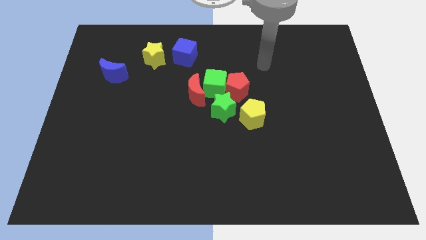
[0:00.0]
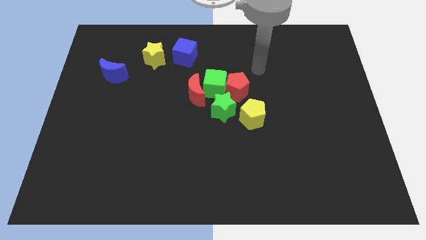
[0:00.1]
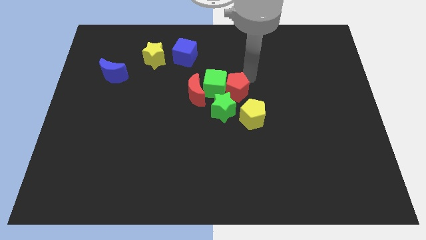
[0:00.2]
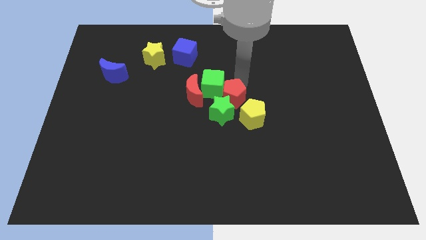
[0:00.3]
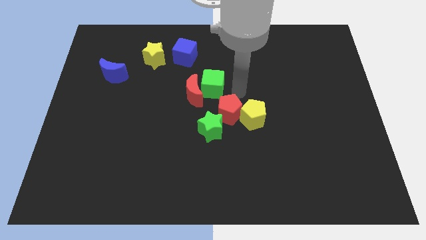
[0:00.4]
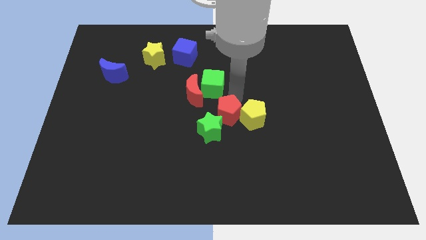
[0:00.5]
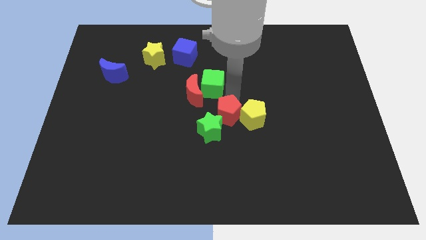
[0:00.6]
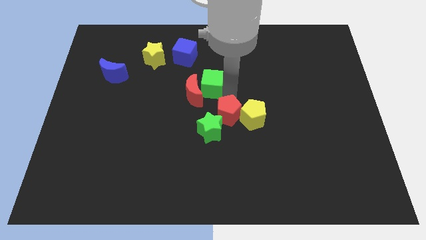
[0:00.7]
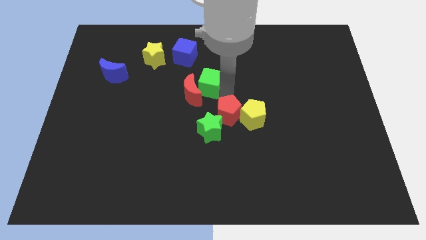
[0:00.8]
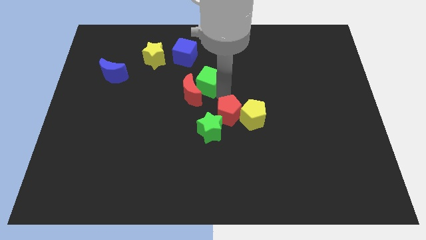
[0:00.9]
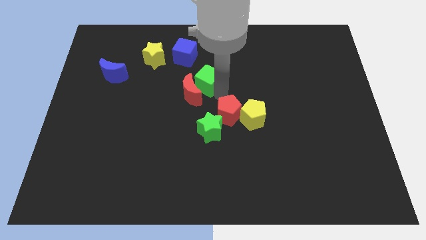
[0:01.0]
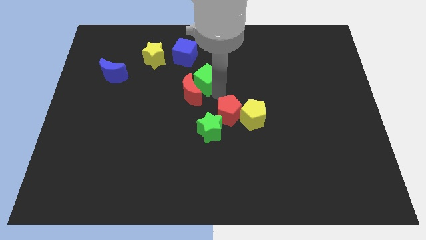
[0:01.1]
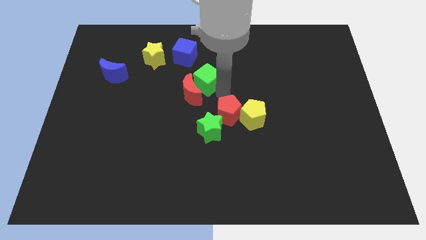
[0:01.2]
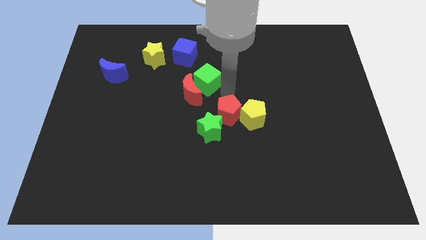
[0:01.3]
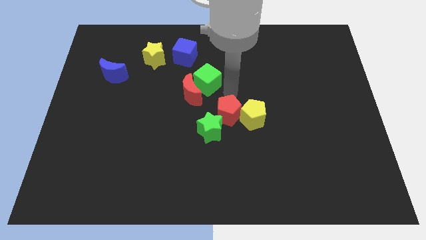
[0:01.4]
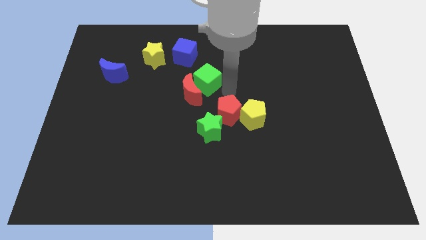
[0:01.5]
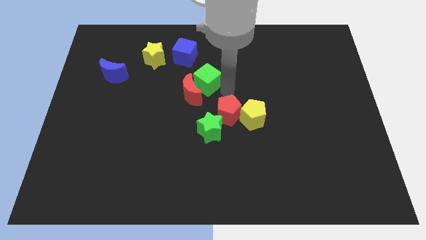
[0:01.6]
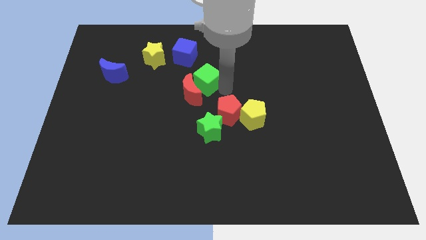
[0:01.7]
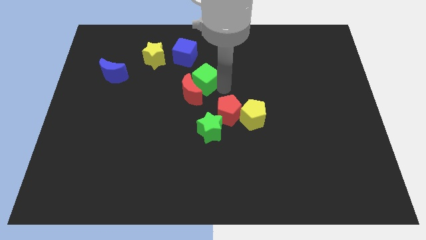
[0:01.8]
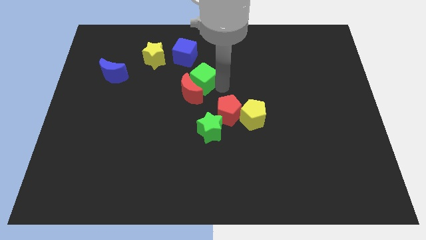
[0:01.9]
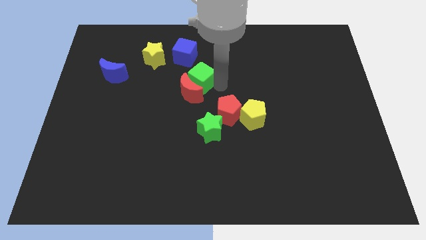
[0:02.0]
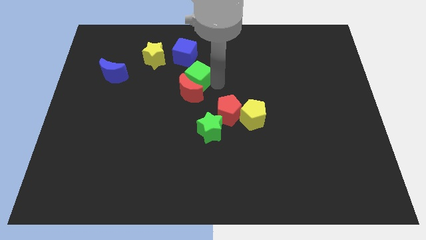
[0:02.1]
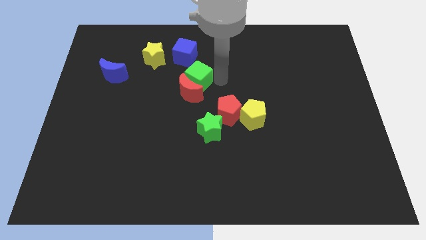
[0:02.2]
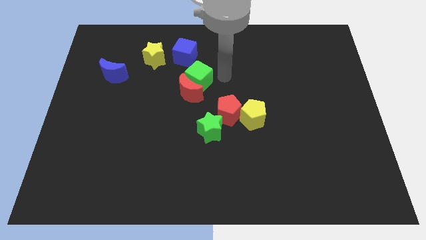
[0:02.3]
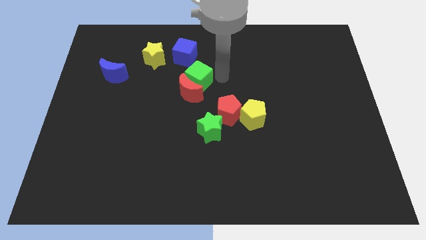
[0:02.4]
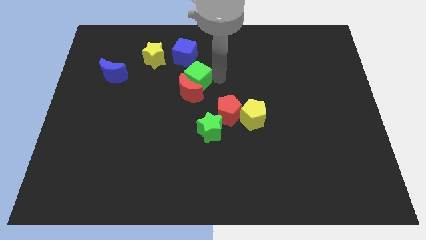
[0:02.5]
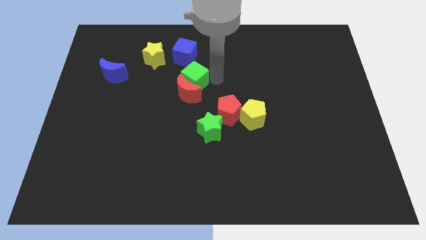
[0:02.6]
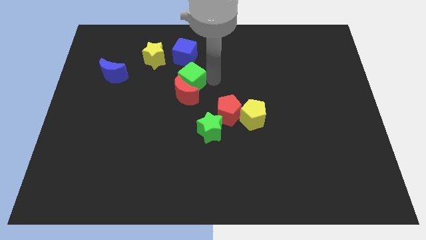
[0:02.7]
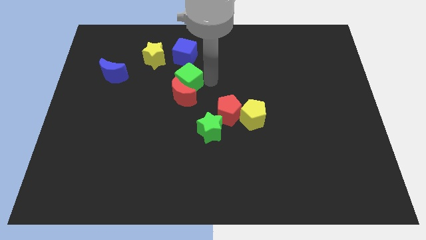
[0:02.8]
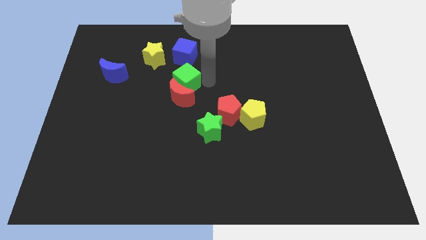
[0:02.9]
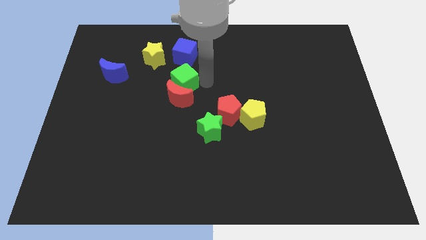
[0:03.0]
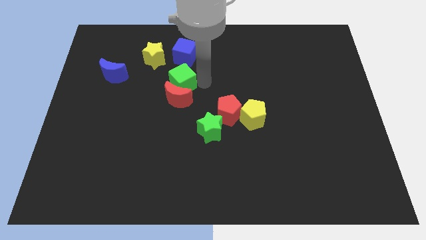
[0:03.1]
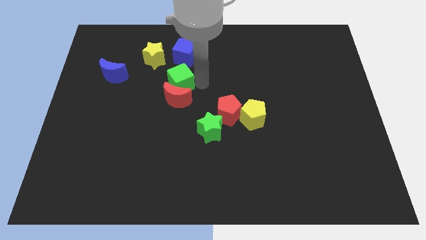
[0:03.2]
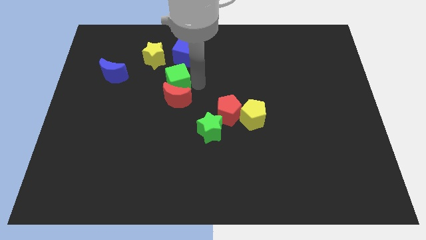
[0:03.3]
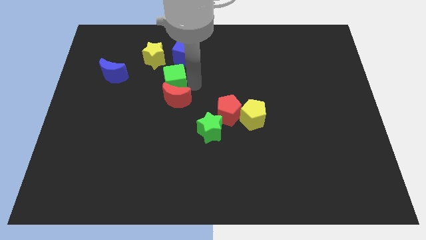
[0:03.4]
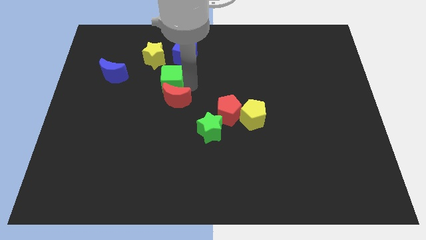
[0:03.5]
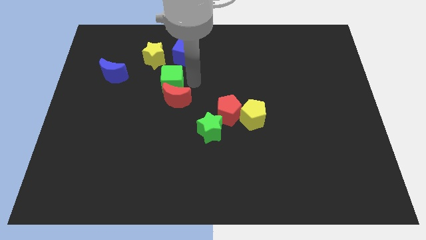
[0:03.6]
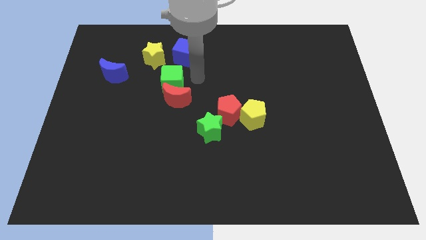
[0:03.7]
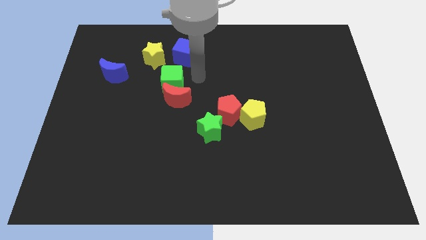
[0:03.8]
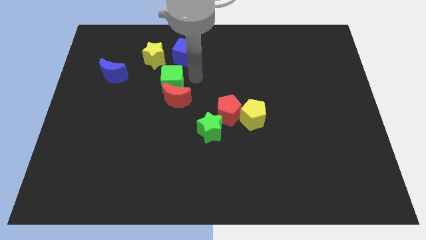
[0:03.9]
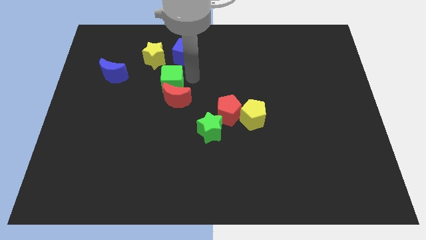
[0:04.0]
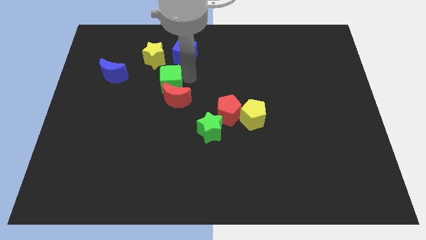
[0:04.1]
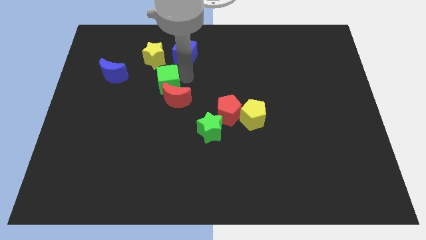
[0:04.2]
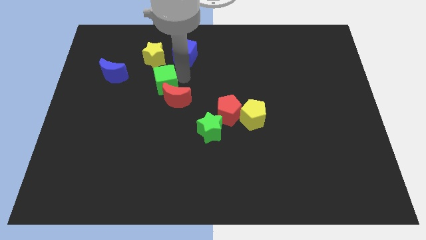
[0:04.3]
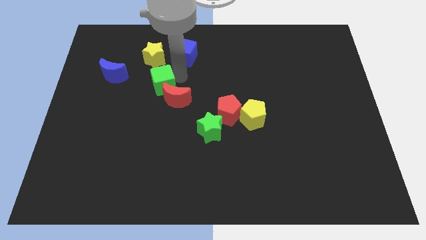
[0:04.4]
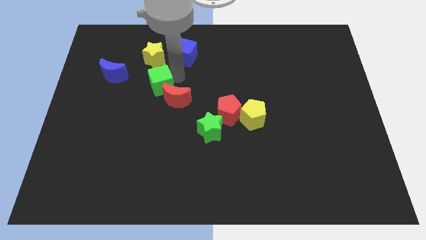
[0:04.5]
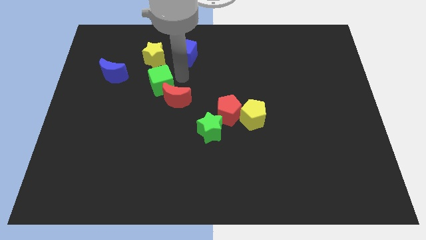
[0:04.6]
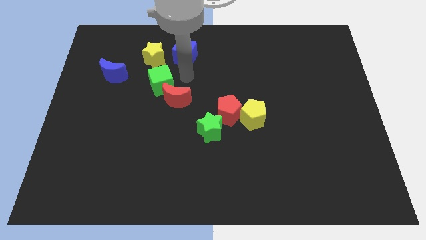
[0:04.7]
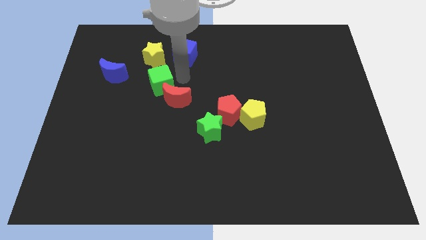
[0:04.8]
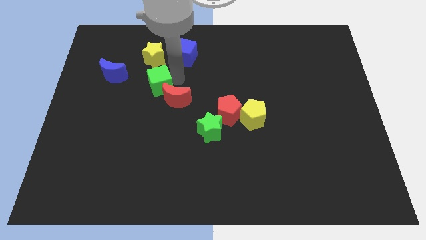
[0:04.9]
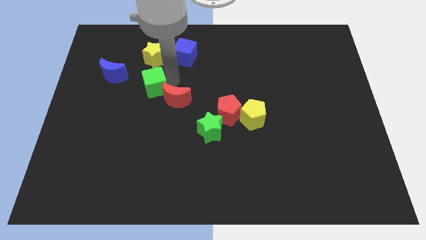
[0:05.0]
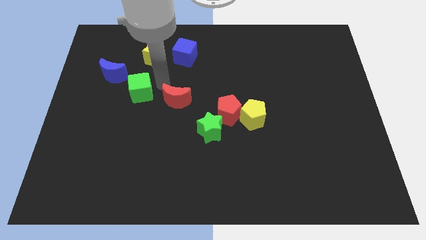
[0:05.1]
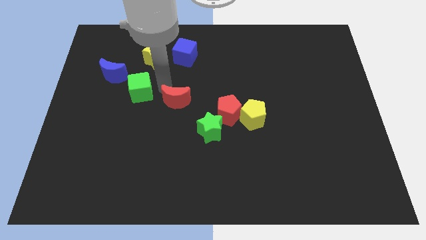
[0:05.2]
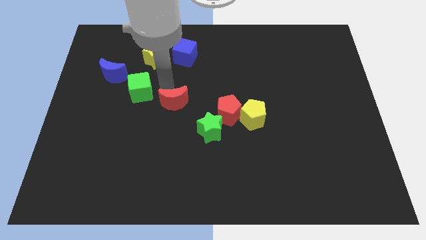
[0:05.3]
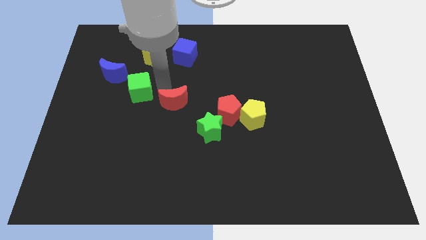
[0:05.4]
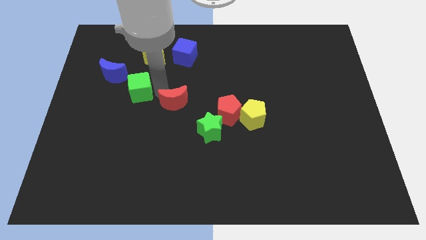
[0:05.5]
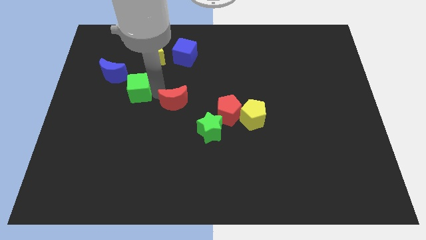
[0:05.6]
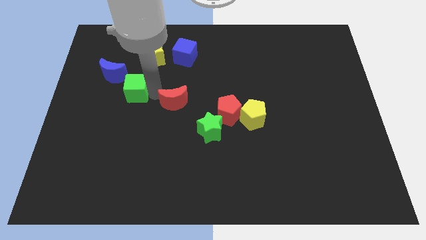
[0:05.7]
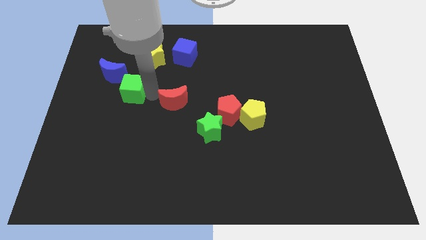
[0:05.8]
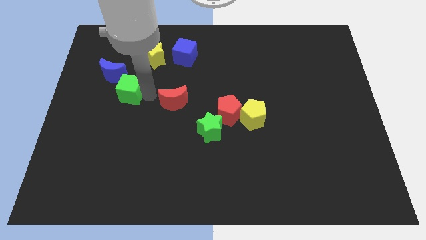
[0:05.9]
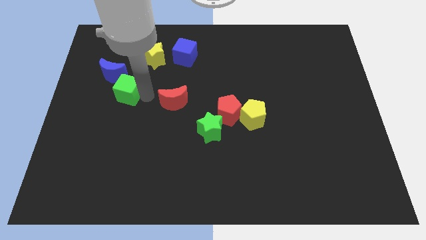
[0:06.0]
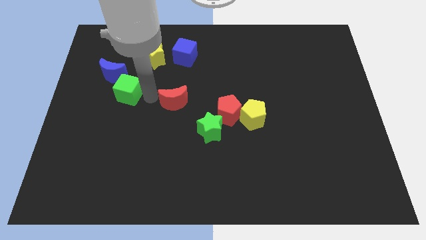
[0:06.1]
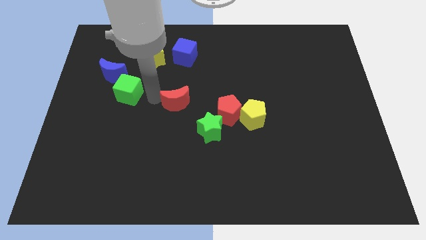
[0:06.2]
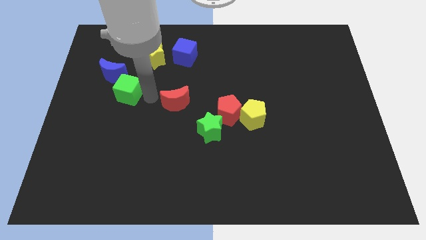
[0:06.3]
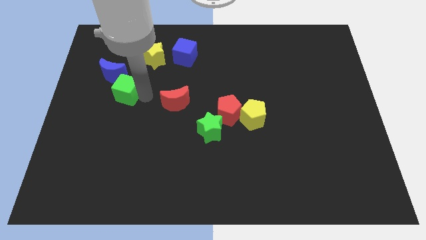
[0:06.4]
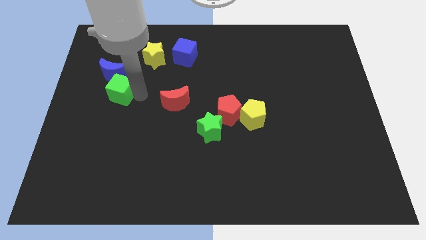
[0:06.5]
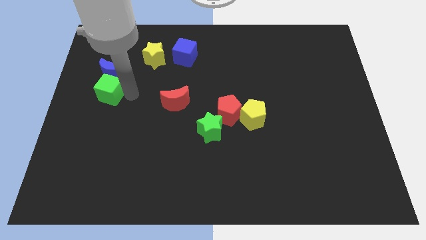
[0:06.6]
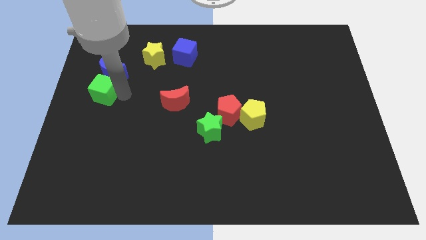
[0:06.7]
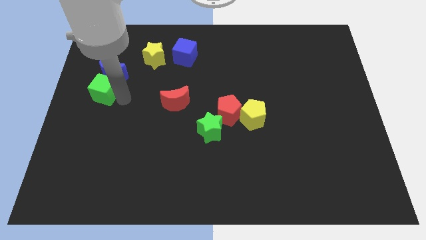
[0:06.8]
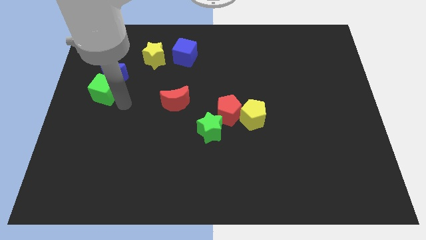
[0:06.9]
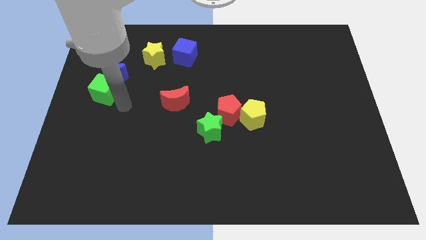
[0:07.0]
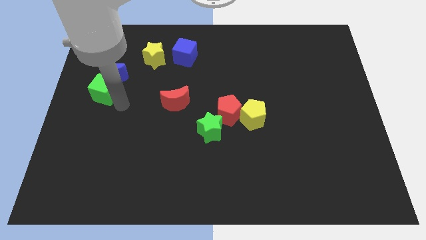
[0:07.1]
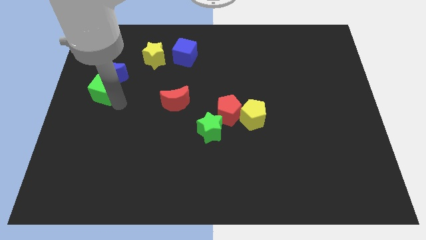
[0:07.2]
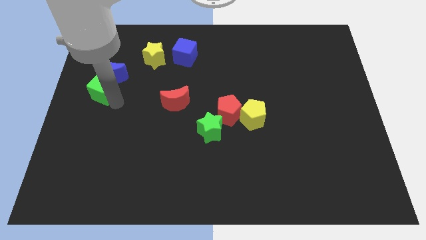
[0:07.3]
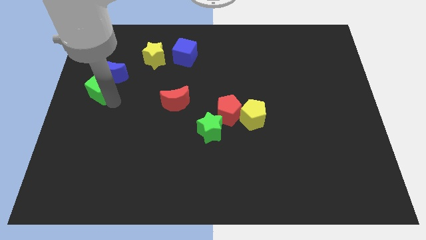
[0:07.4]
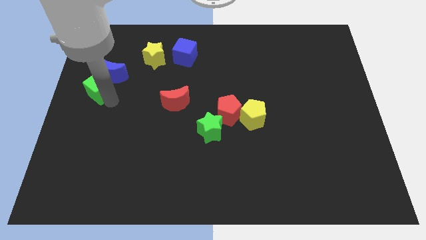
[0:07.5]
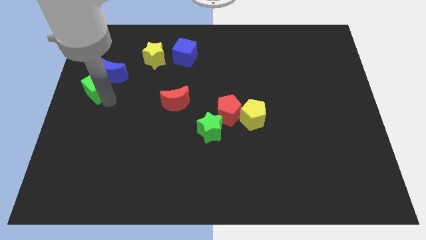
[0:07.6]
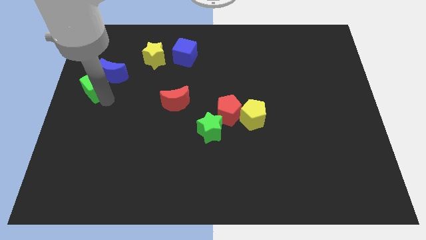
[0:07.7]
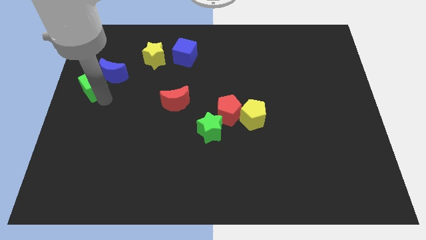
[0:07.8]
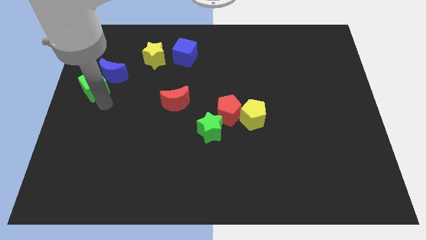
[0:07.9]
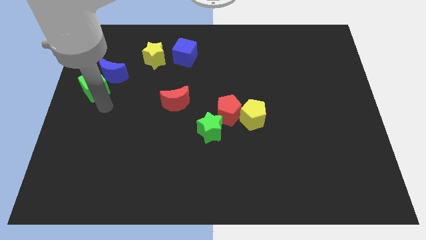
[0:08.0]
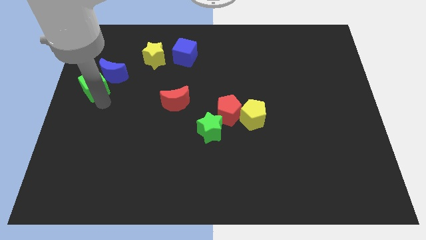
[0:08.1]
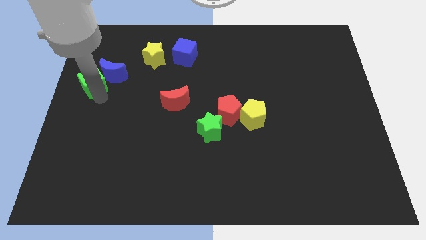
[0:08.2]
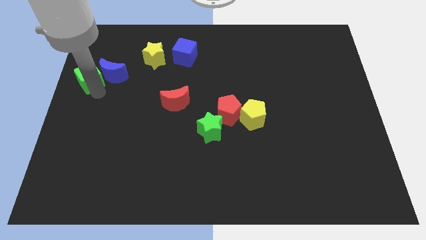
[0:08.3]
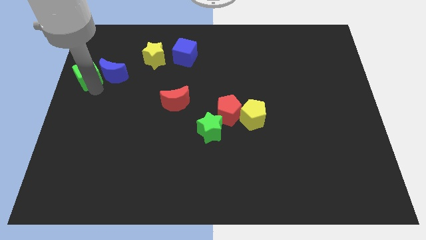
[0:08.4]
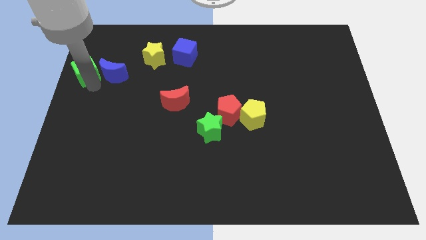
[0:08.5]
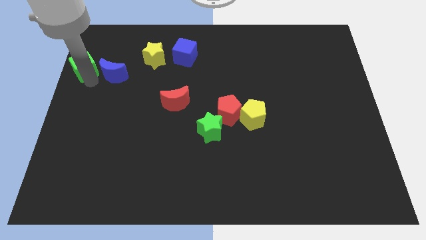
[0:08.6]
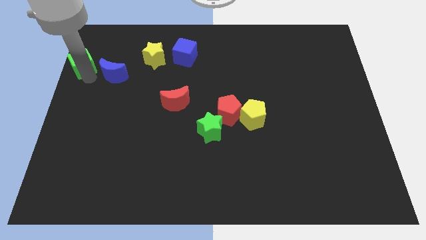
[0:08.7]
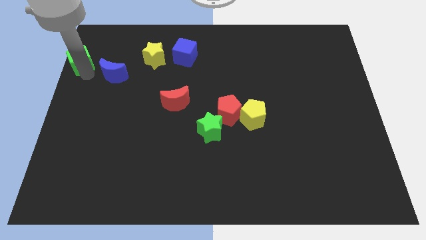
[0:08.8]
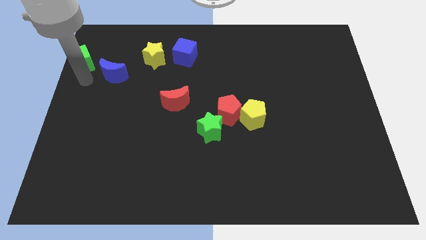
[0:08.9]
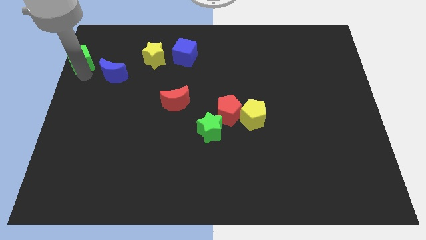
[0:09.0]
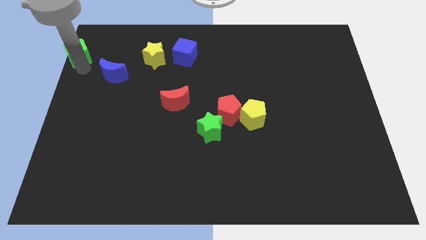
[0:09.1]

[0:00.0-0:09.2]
move the green cube to the top left
